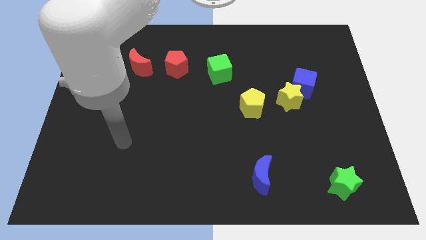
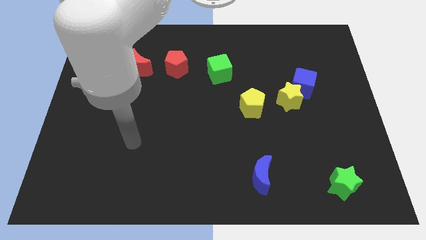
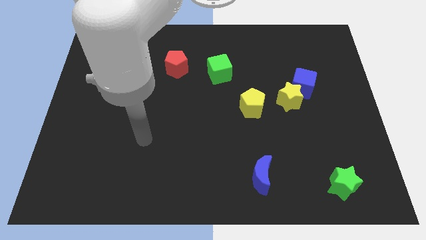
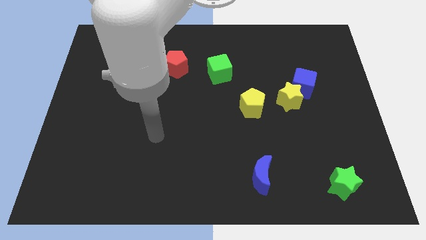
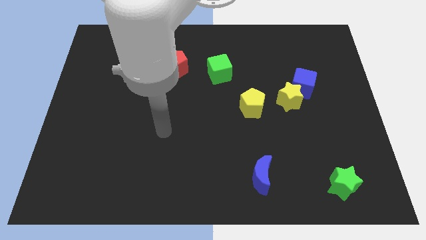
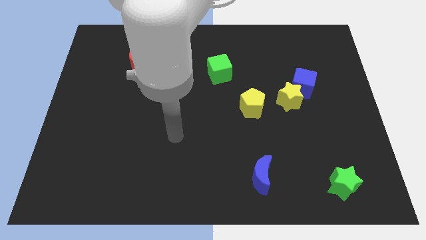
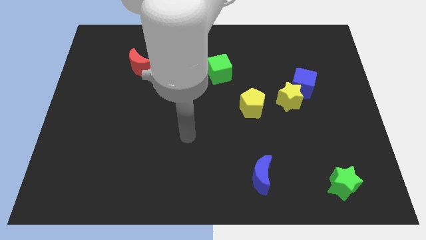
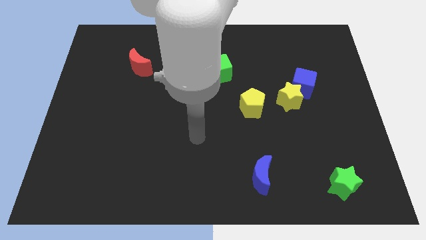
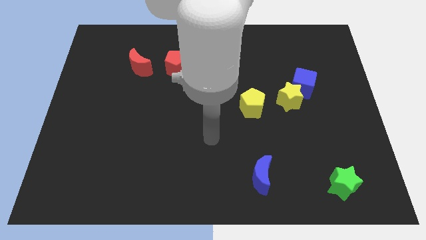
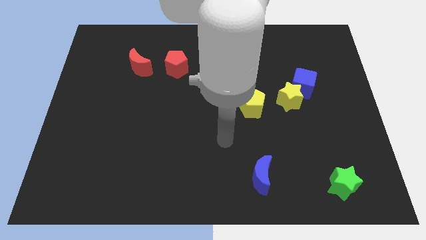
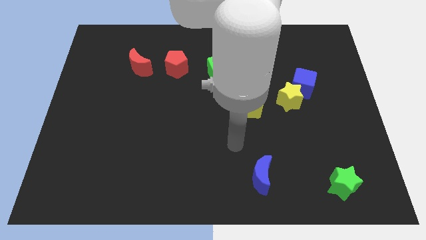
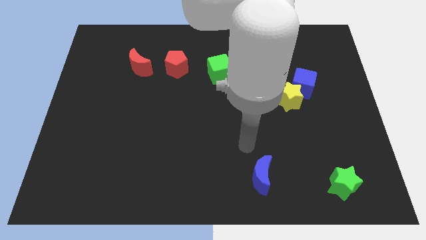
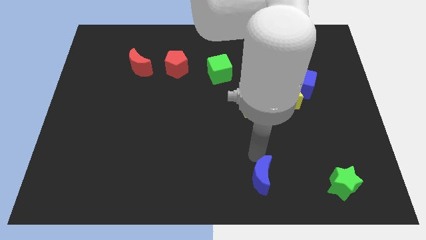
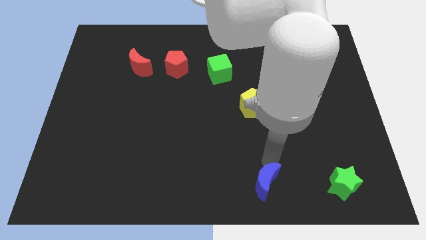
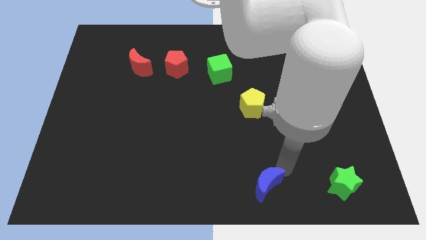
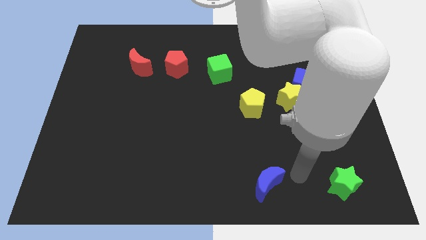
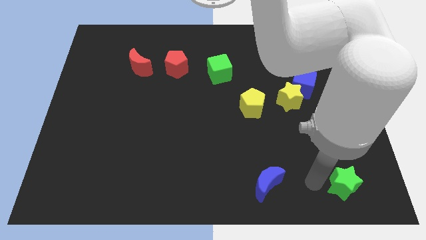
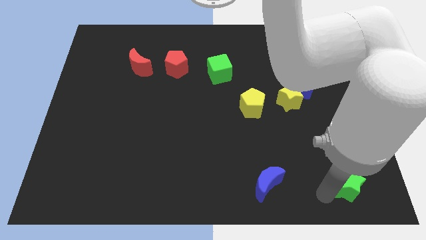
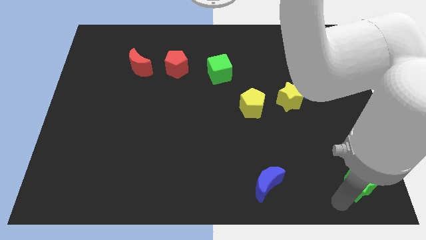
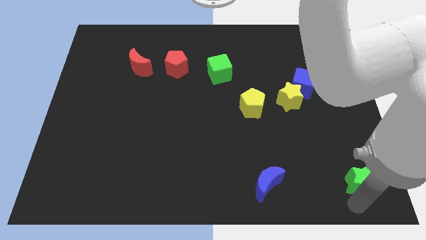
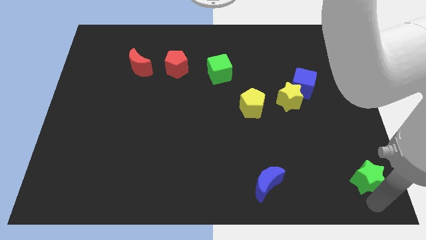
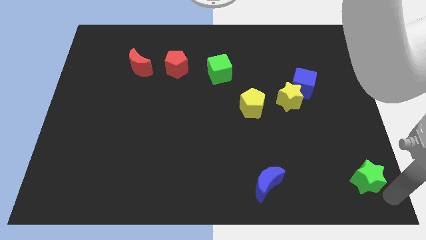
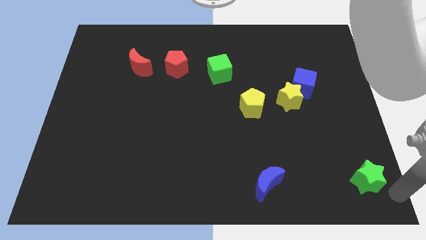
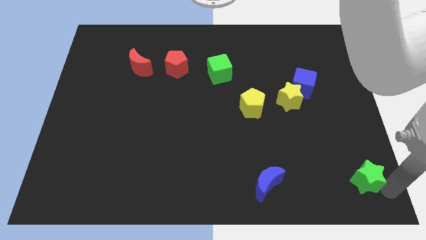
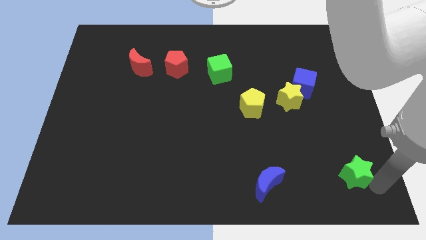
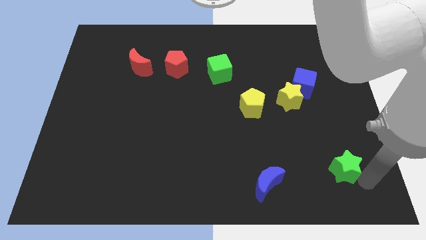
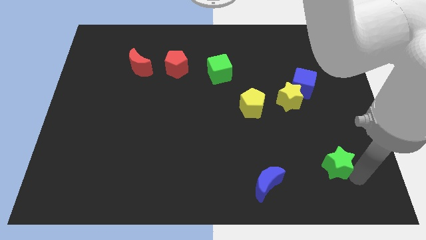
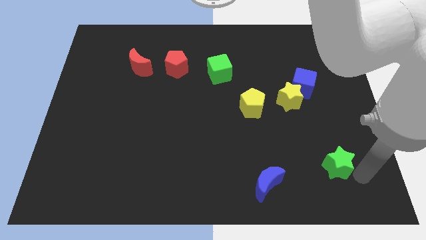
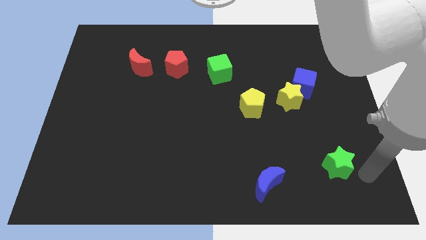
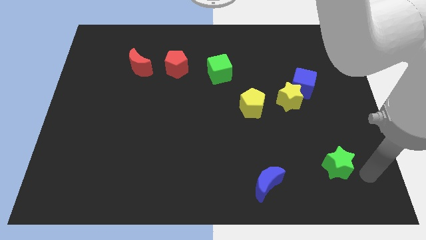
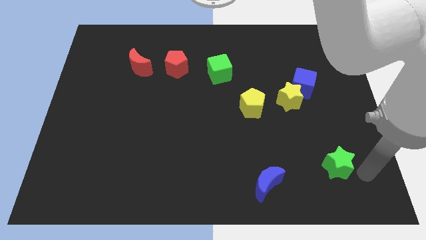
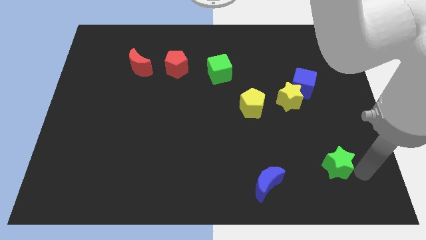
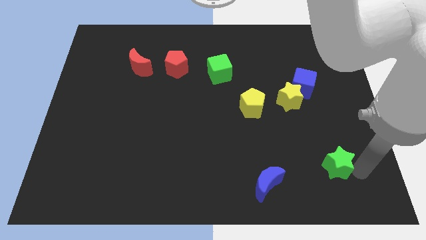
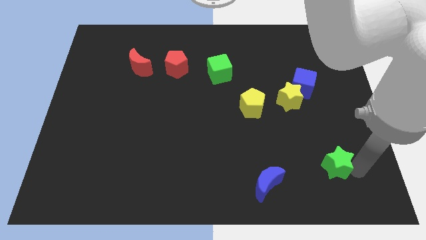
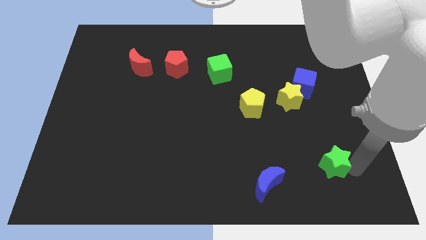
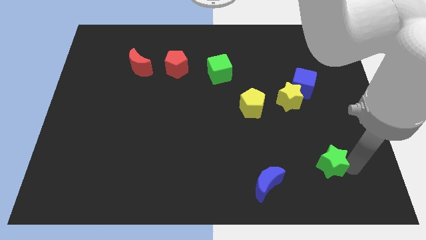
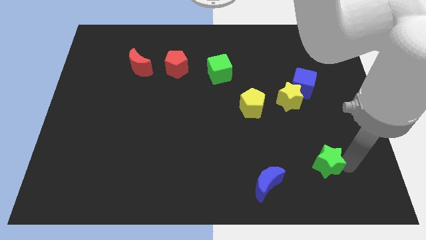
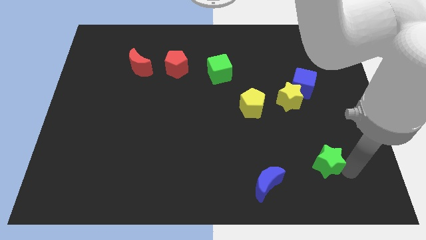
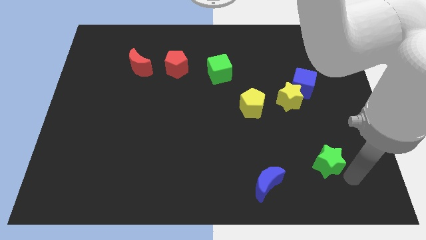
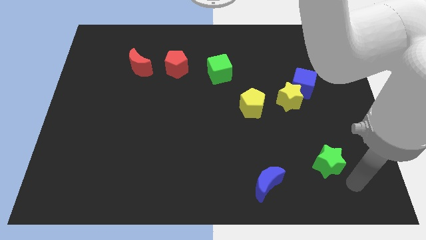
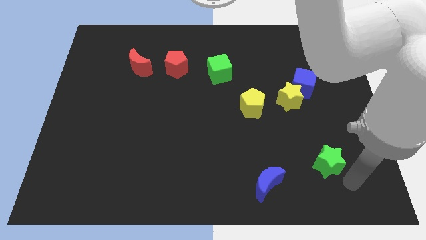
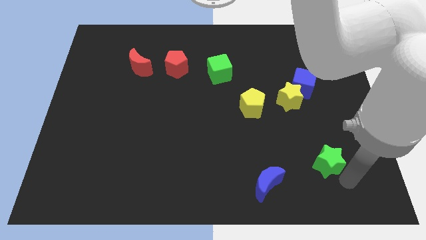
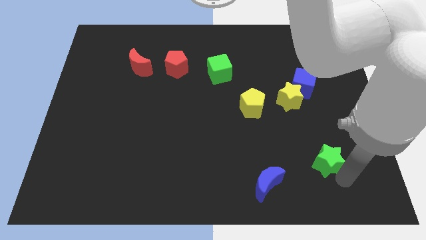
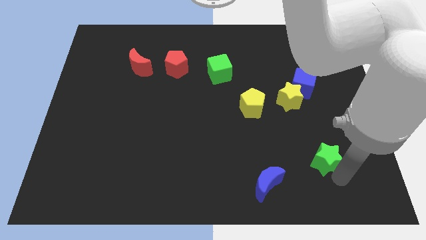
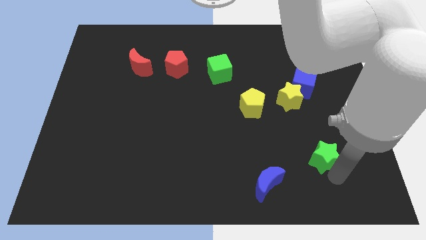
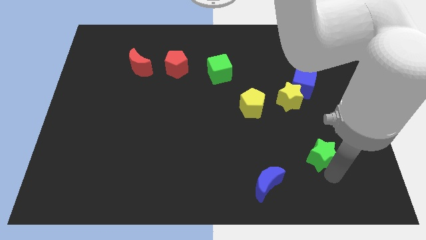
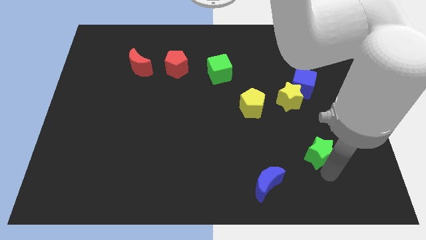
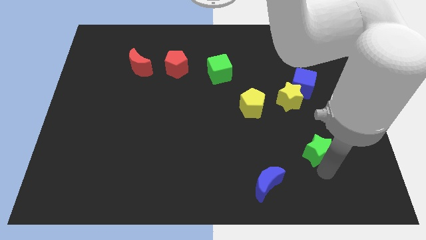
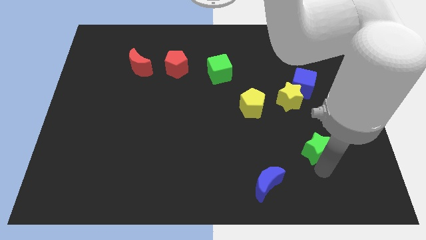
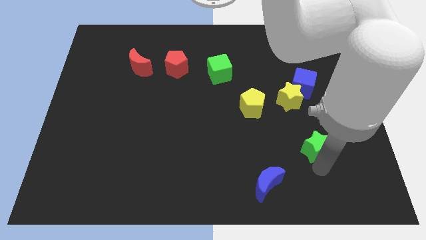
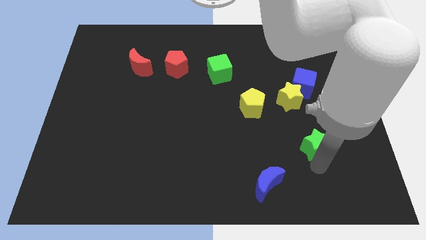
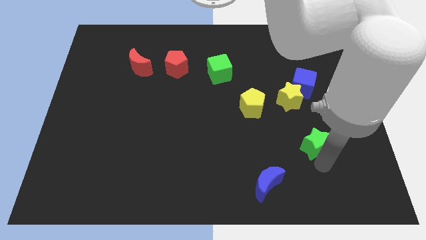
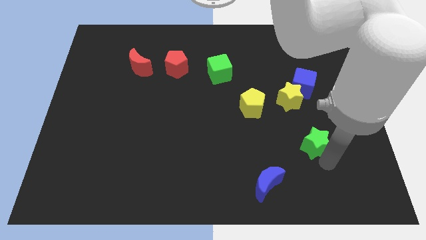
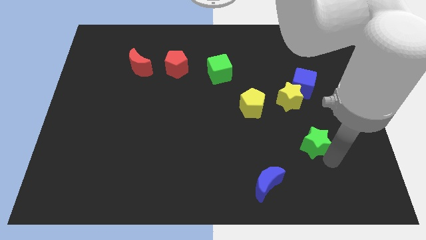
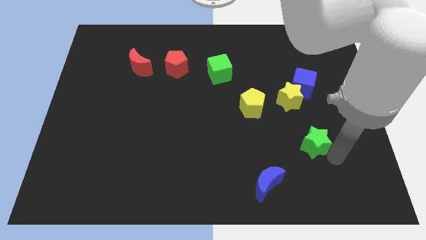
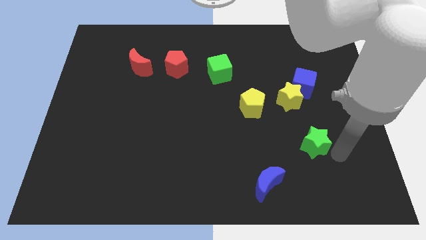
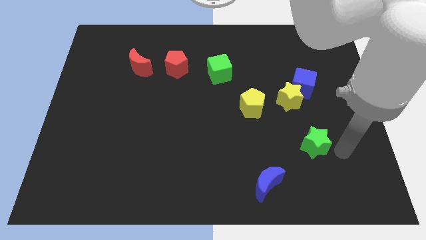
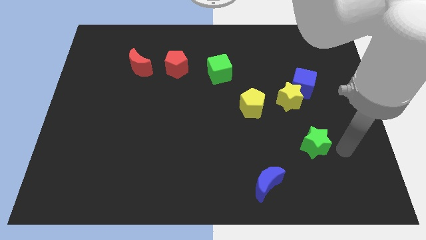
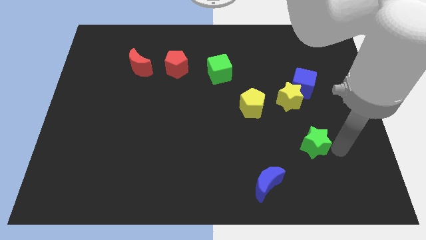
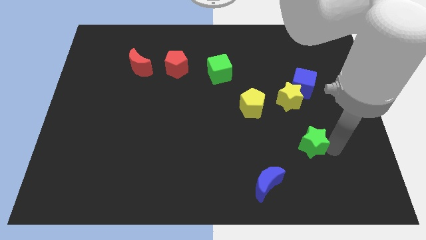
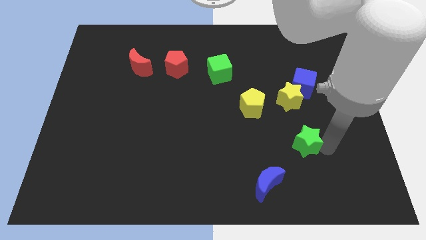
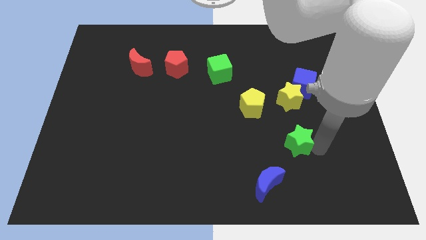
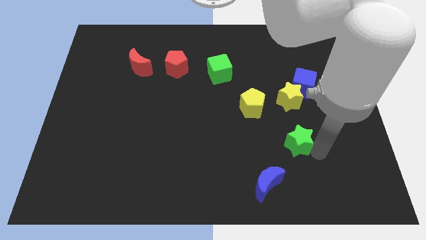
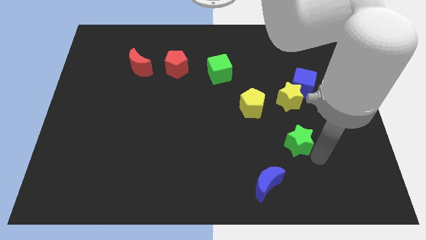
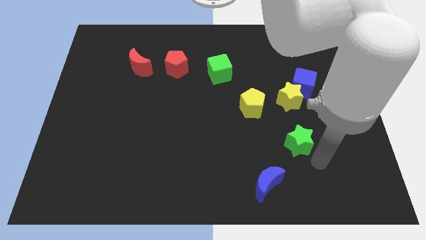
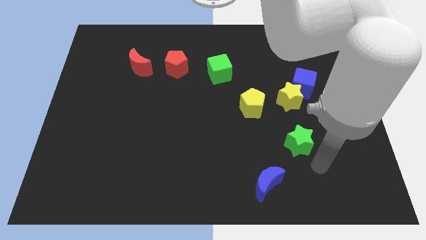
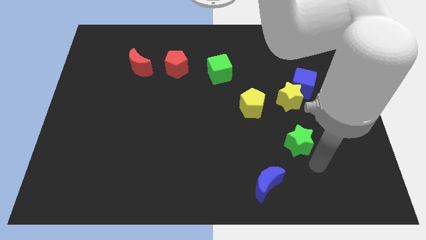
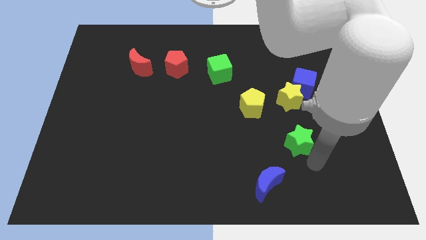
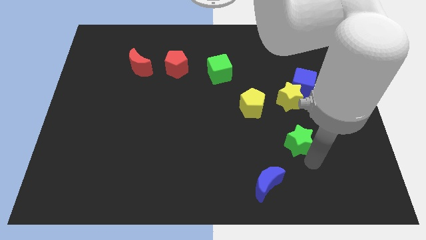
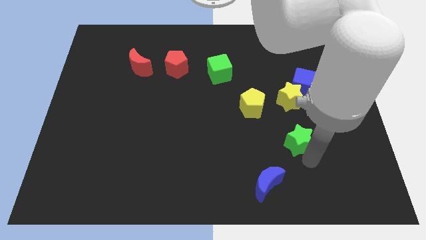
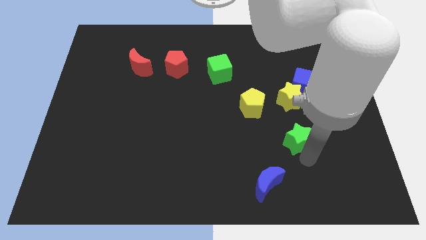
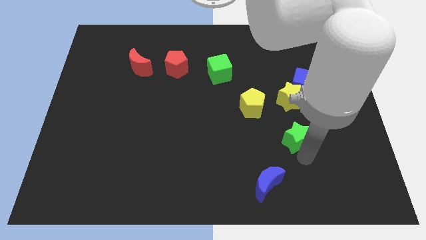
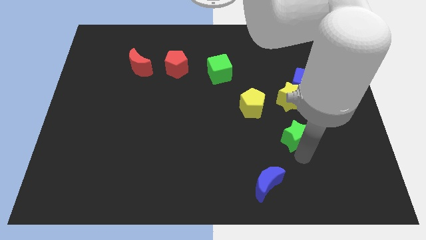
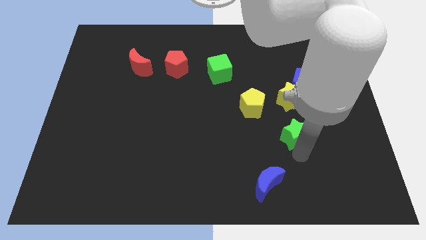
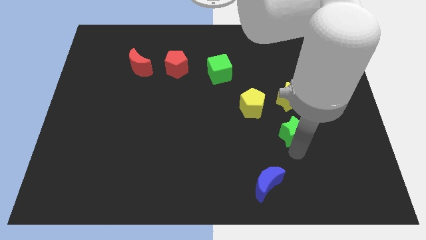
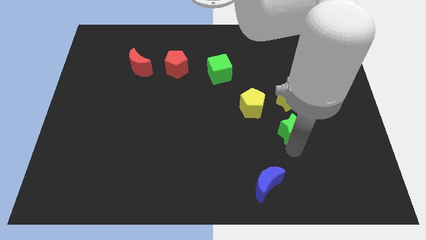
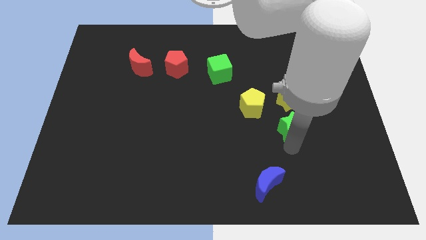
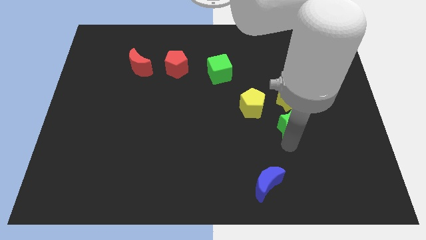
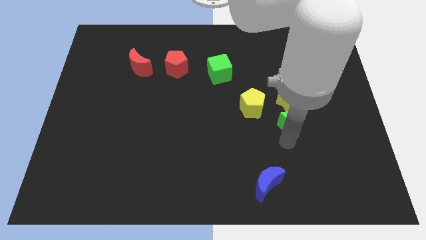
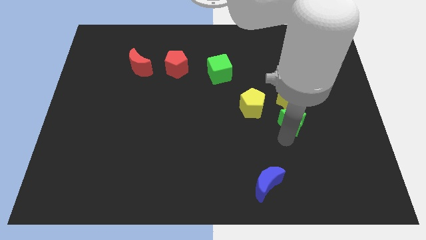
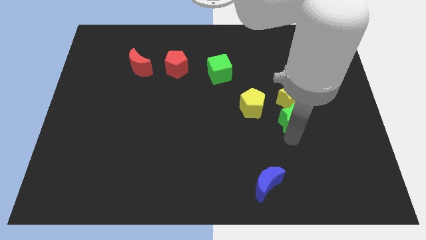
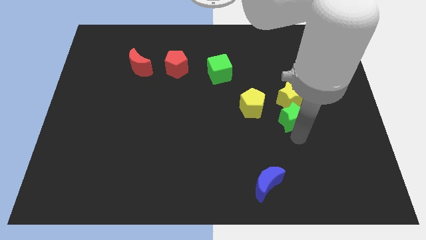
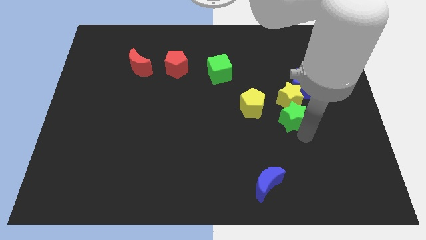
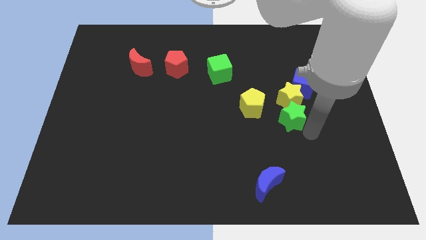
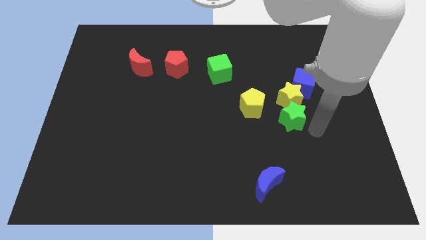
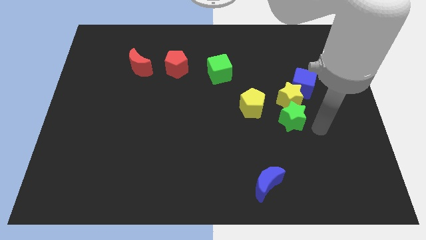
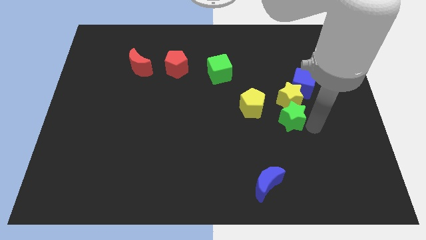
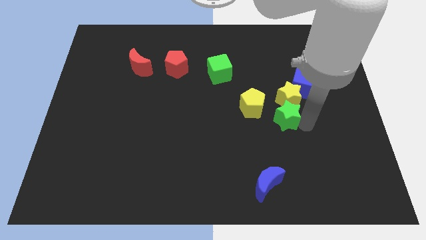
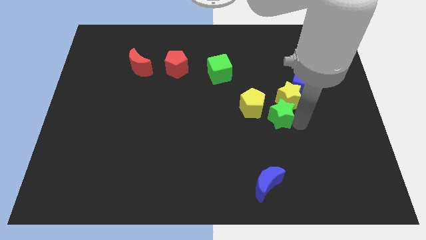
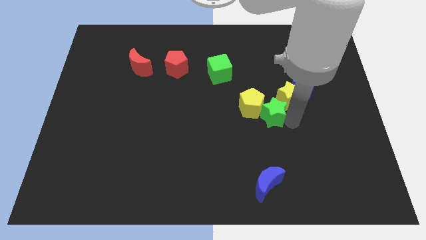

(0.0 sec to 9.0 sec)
put the green star next to the yellow pentagon
